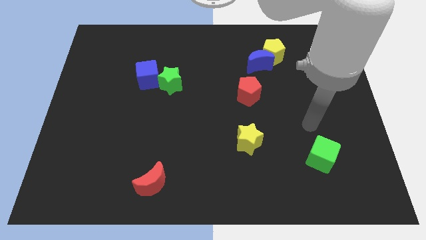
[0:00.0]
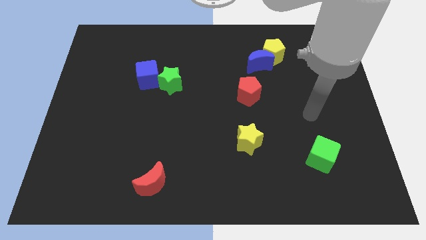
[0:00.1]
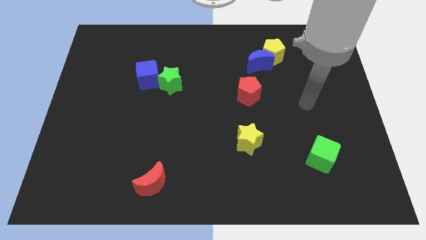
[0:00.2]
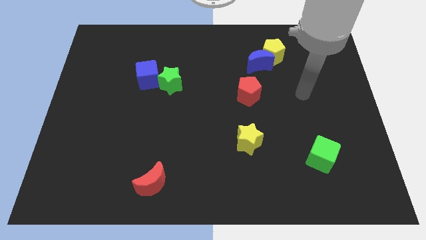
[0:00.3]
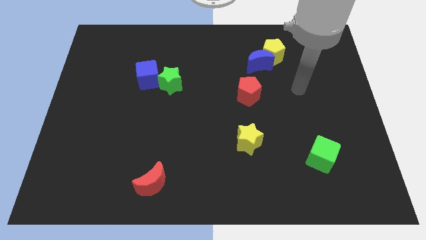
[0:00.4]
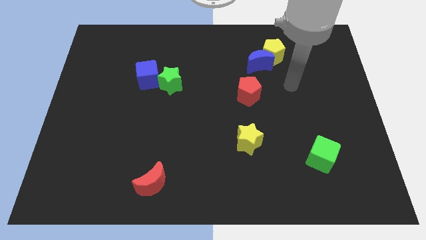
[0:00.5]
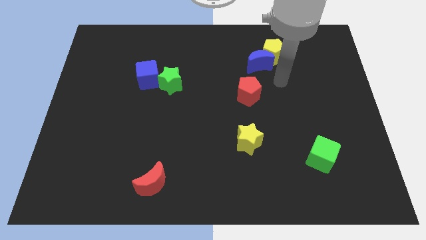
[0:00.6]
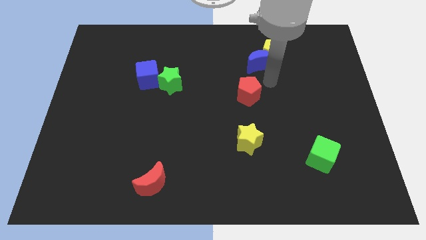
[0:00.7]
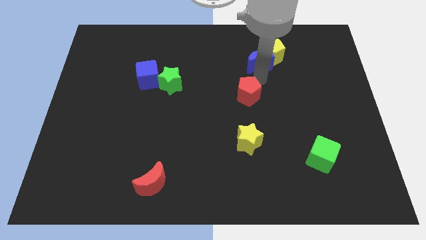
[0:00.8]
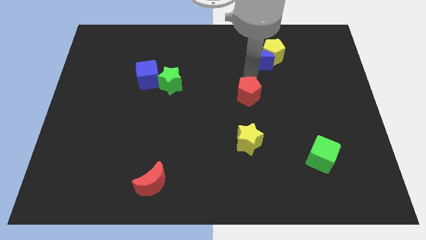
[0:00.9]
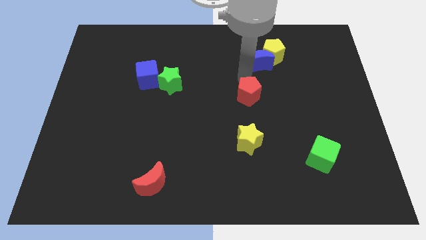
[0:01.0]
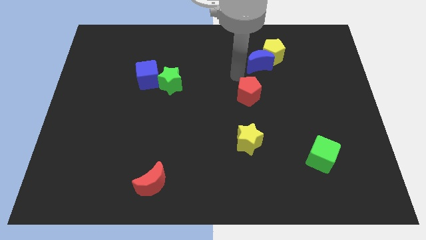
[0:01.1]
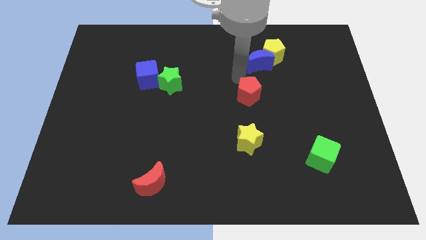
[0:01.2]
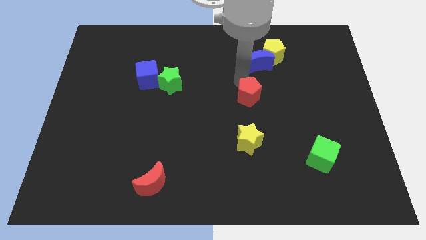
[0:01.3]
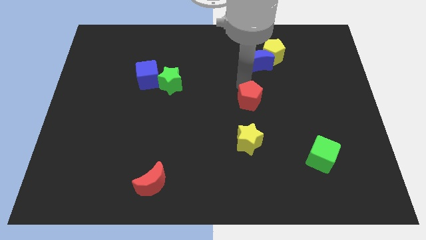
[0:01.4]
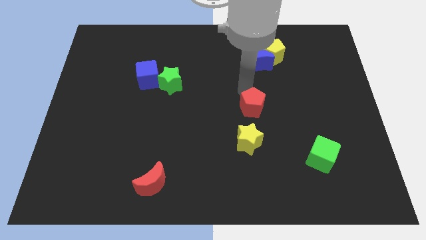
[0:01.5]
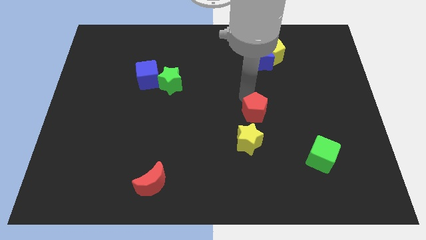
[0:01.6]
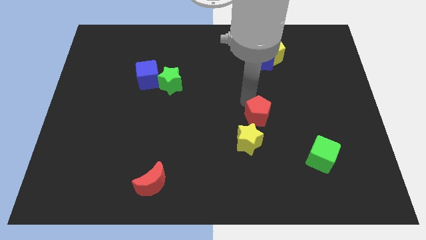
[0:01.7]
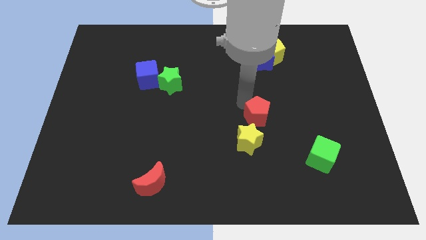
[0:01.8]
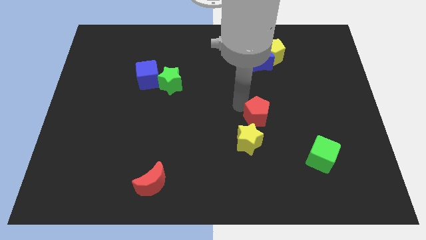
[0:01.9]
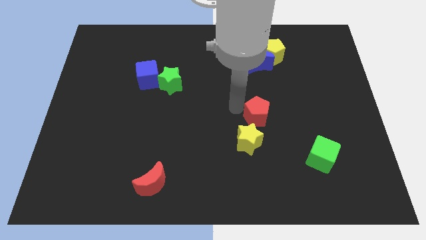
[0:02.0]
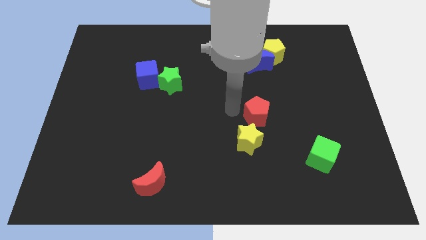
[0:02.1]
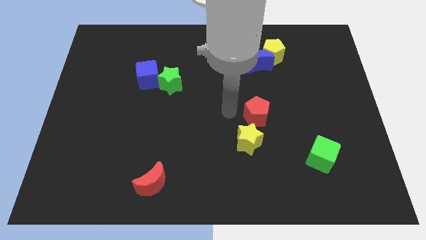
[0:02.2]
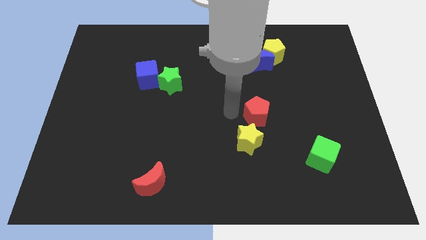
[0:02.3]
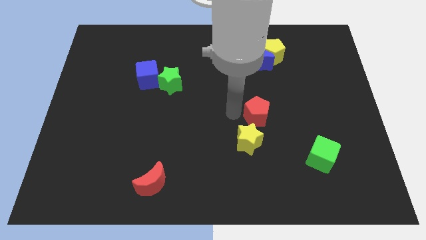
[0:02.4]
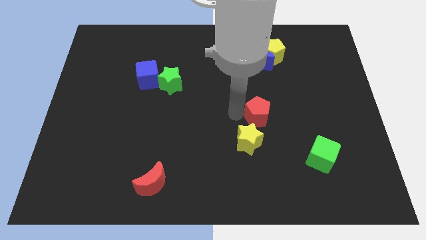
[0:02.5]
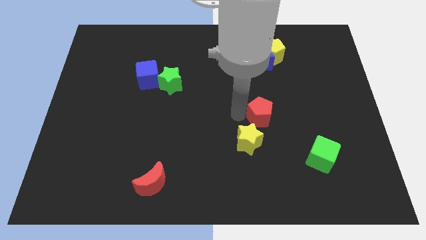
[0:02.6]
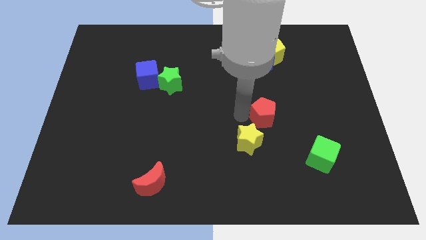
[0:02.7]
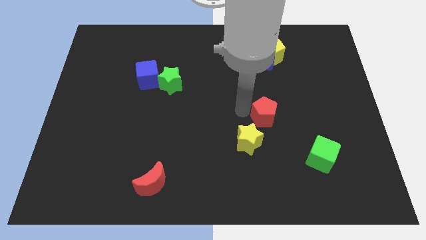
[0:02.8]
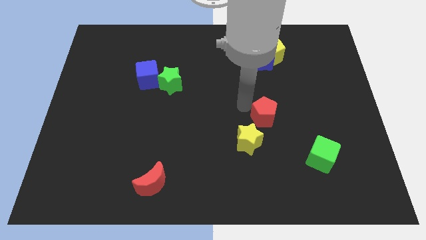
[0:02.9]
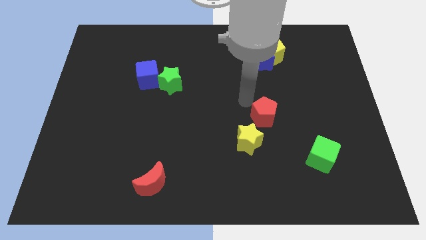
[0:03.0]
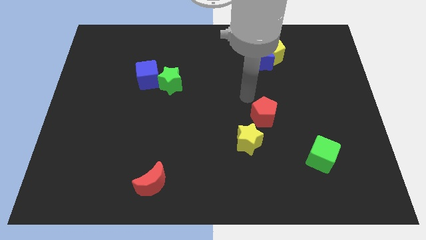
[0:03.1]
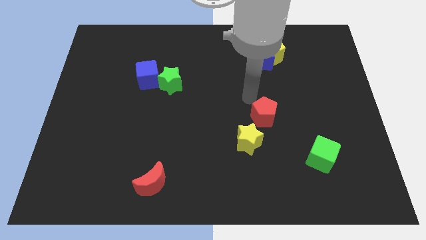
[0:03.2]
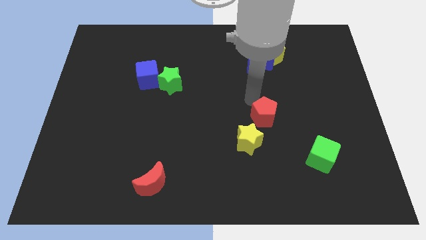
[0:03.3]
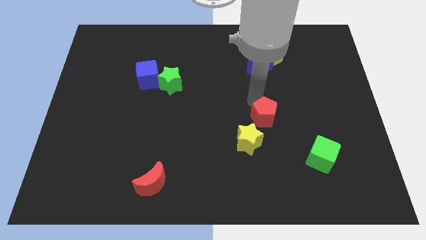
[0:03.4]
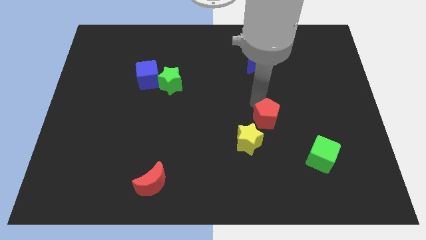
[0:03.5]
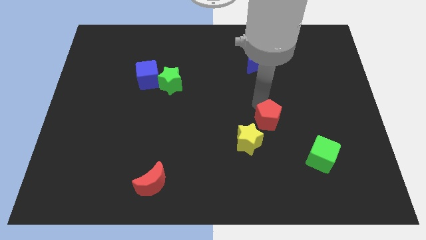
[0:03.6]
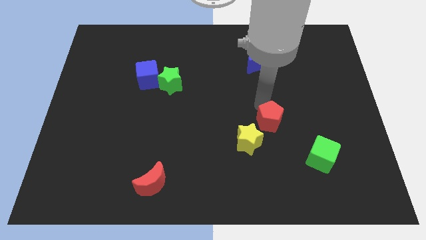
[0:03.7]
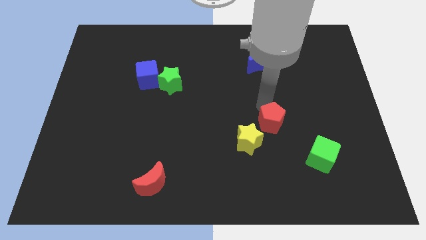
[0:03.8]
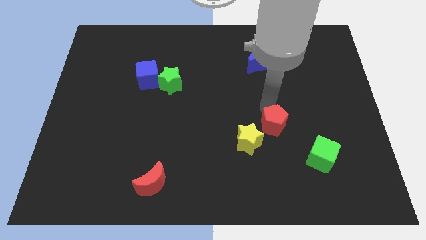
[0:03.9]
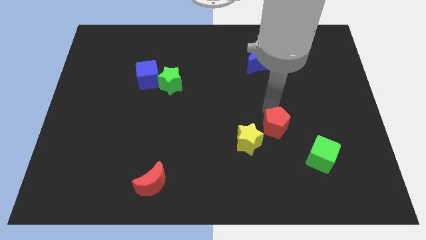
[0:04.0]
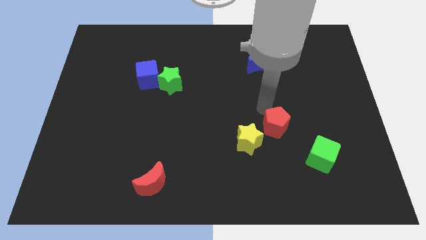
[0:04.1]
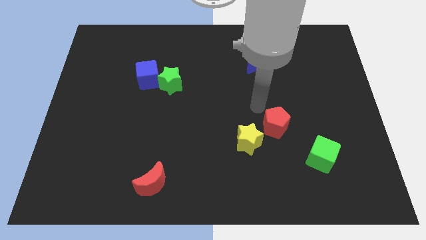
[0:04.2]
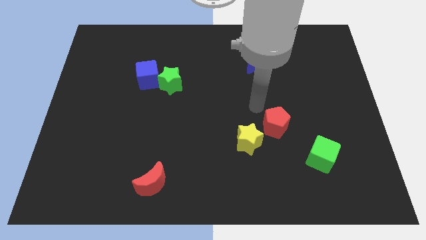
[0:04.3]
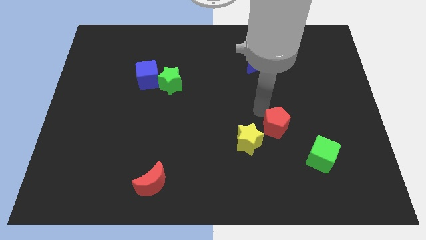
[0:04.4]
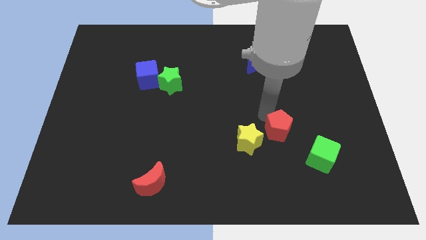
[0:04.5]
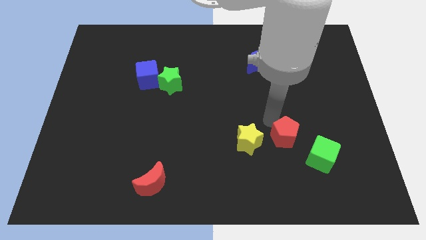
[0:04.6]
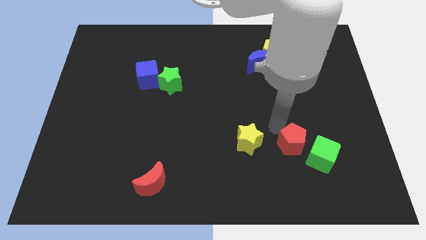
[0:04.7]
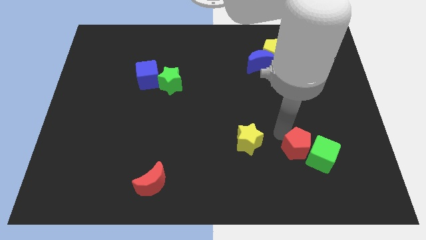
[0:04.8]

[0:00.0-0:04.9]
put the red pentagon towards the green cube

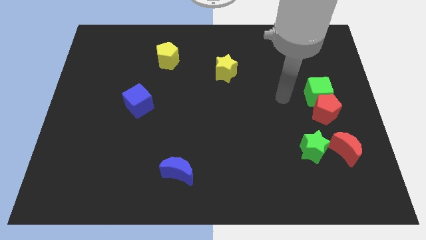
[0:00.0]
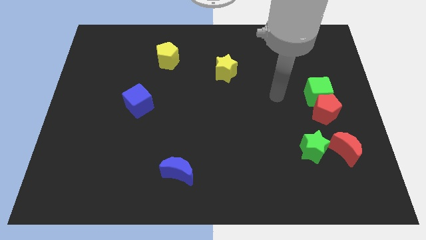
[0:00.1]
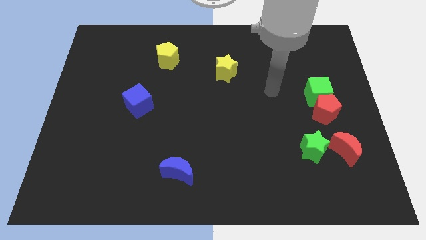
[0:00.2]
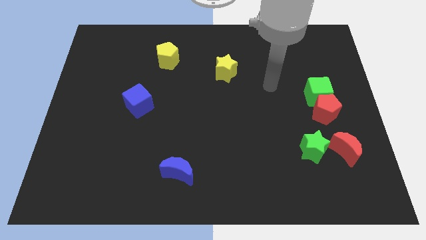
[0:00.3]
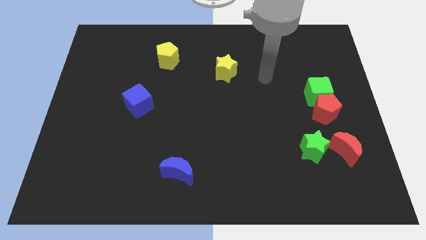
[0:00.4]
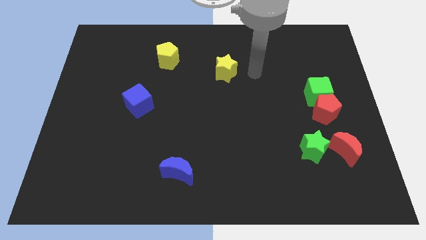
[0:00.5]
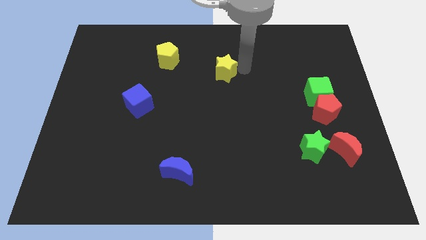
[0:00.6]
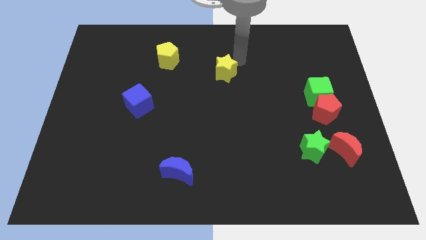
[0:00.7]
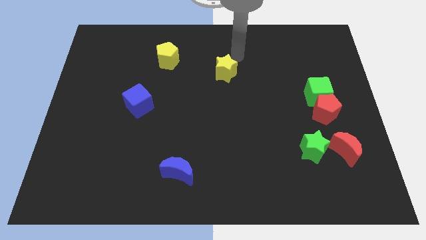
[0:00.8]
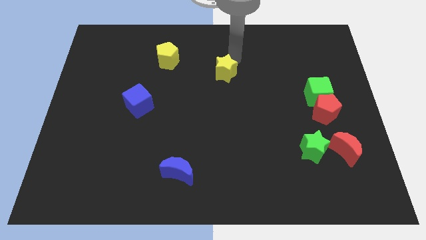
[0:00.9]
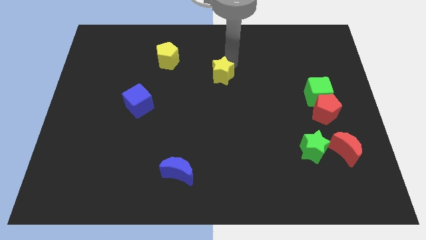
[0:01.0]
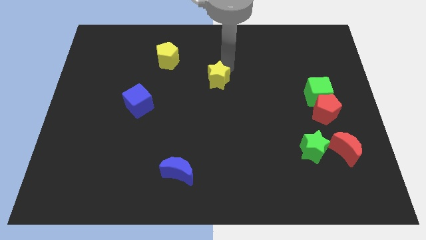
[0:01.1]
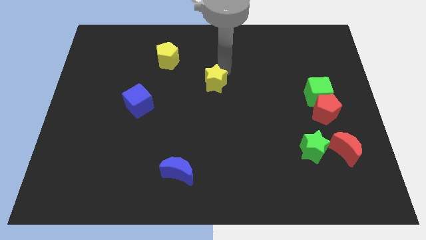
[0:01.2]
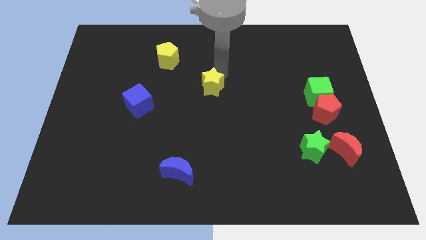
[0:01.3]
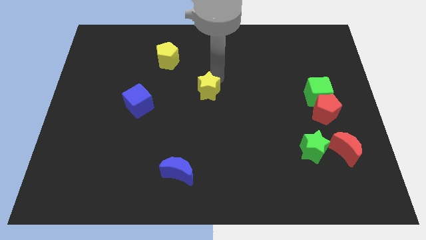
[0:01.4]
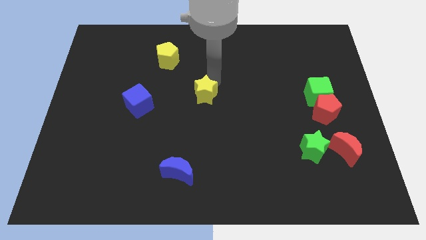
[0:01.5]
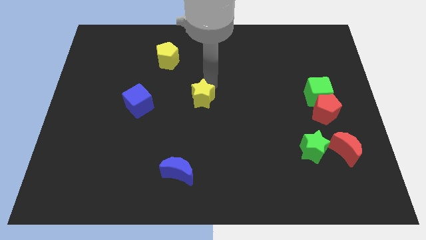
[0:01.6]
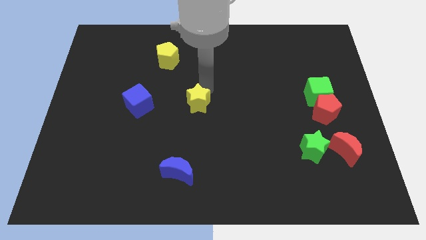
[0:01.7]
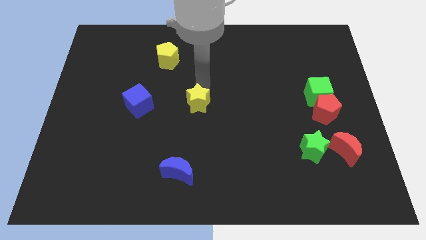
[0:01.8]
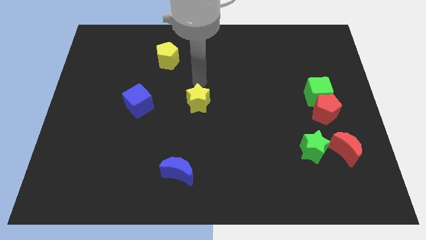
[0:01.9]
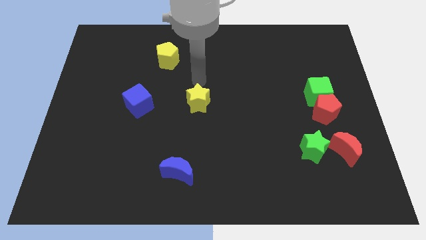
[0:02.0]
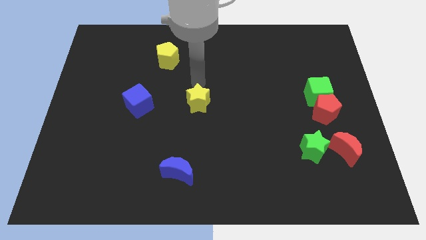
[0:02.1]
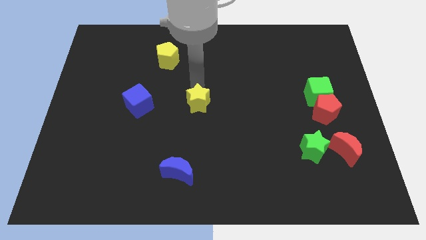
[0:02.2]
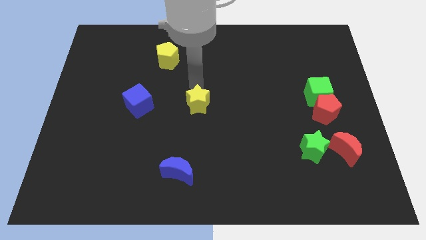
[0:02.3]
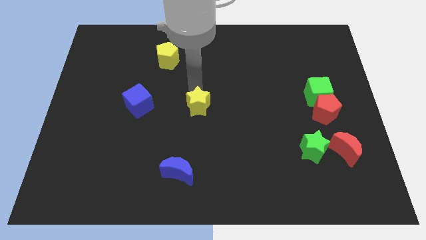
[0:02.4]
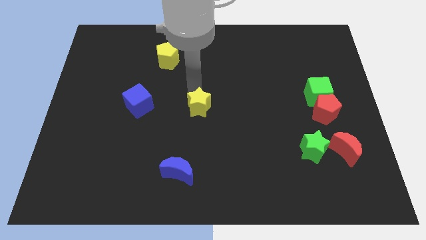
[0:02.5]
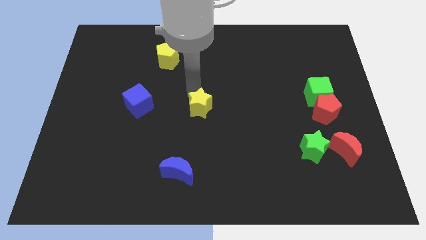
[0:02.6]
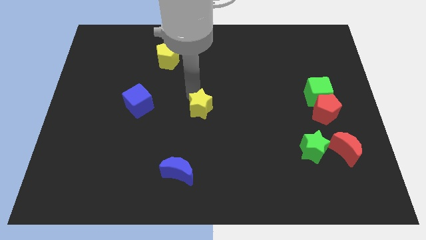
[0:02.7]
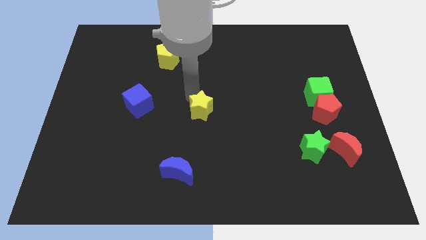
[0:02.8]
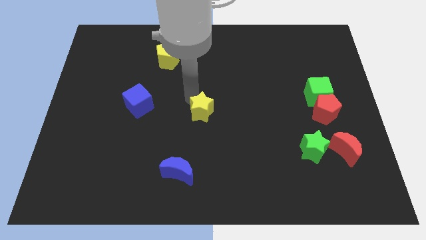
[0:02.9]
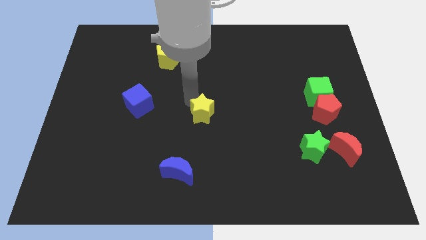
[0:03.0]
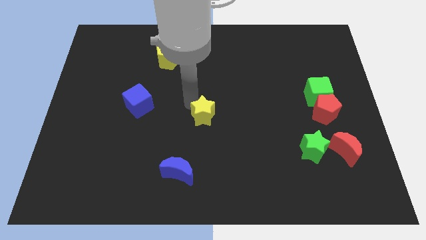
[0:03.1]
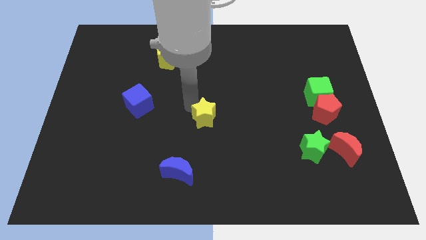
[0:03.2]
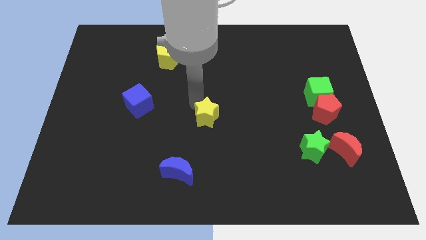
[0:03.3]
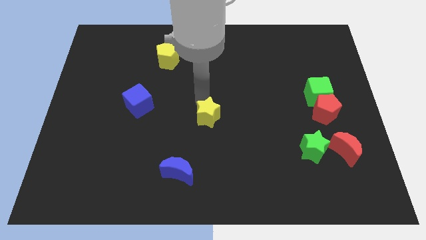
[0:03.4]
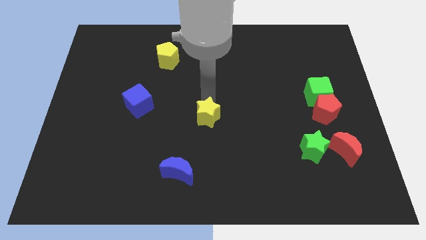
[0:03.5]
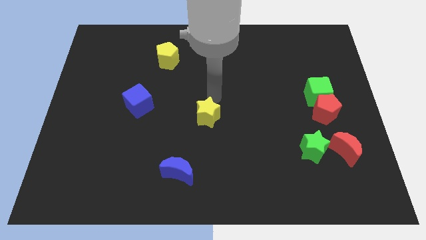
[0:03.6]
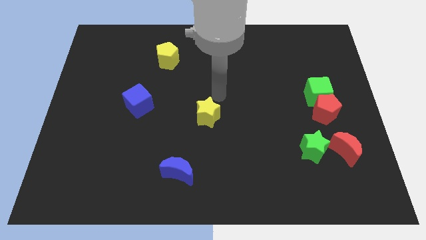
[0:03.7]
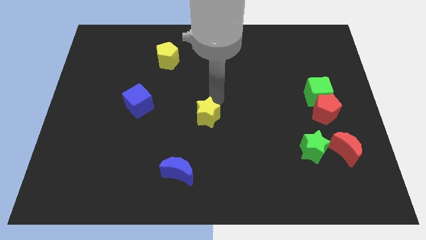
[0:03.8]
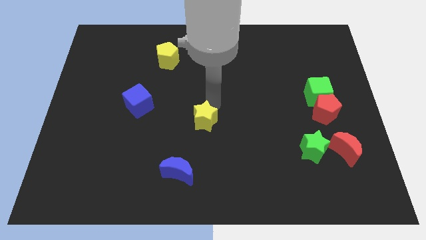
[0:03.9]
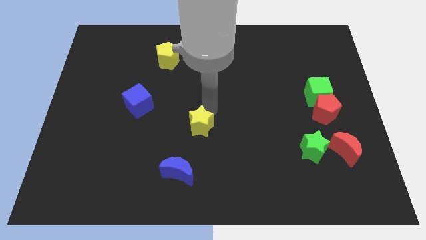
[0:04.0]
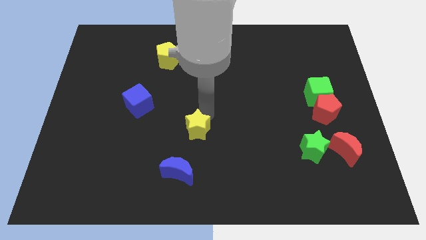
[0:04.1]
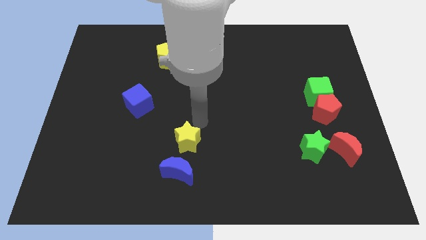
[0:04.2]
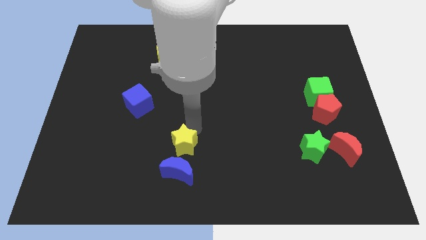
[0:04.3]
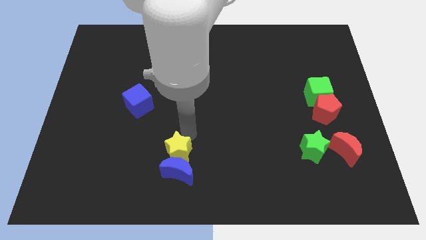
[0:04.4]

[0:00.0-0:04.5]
push the yellow star to the blue moon
